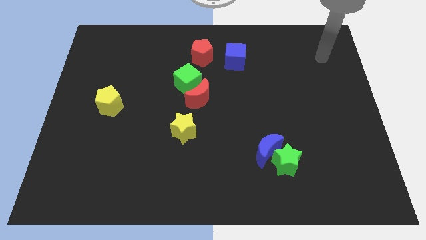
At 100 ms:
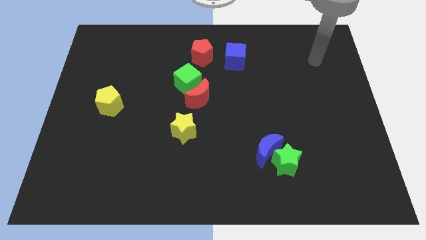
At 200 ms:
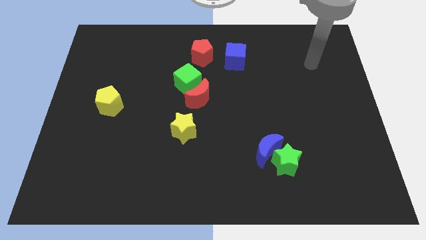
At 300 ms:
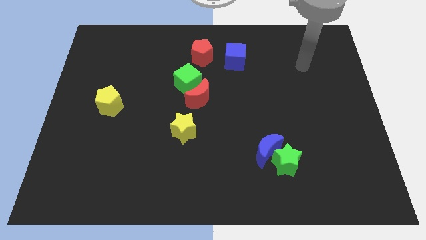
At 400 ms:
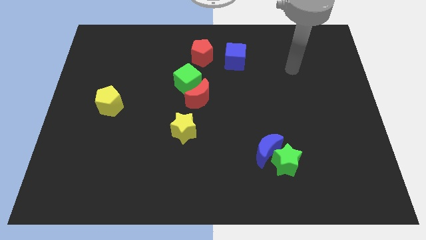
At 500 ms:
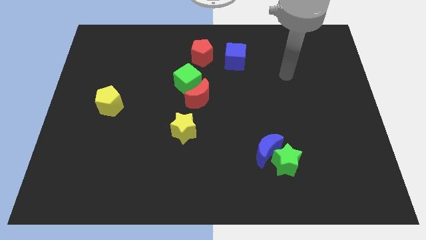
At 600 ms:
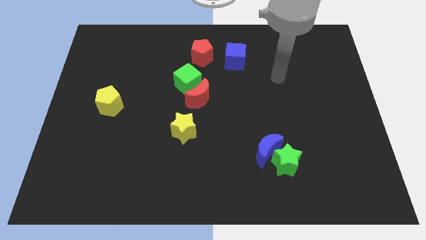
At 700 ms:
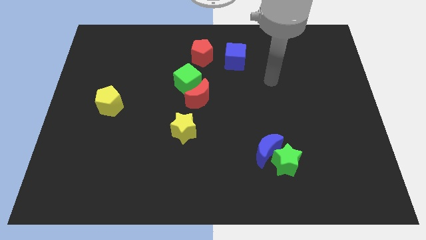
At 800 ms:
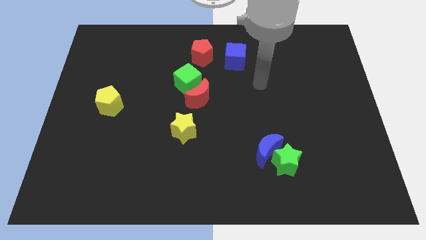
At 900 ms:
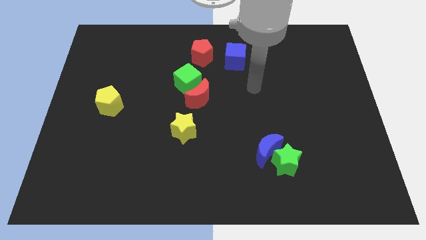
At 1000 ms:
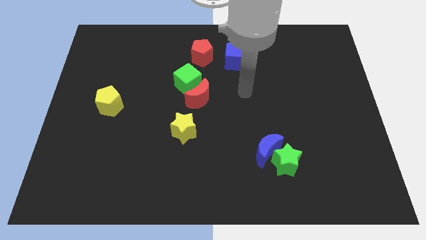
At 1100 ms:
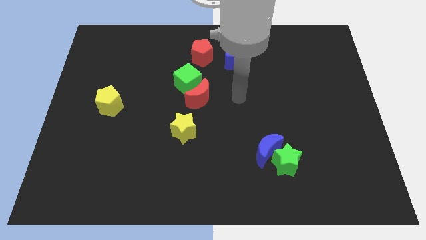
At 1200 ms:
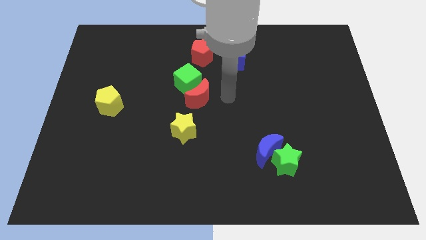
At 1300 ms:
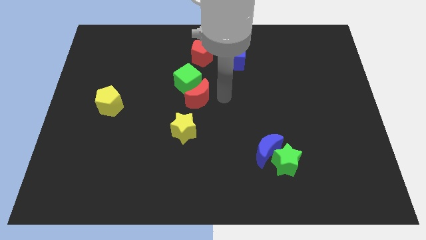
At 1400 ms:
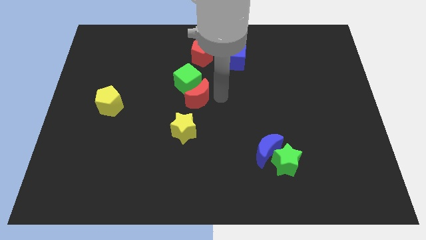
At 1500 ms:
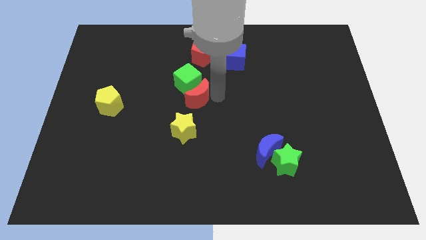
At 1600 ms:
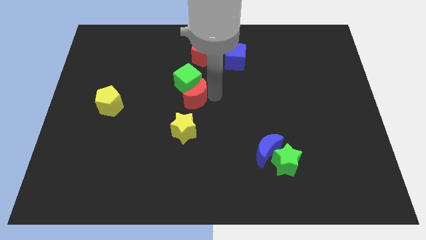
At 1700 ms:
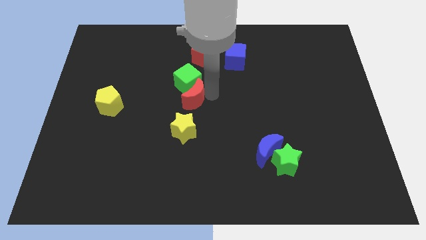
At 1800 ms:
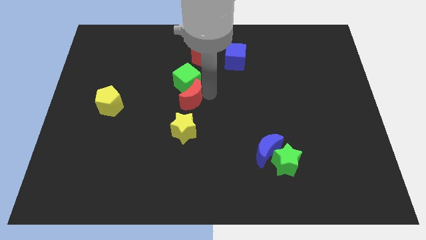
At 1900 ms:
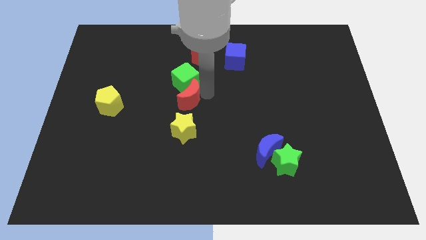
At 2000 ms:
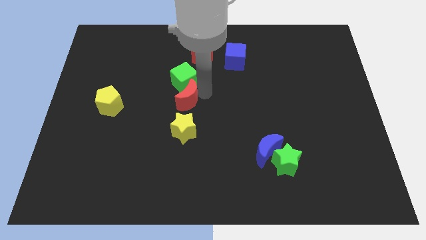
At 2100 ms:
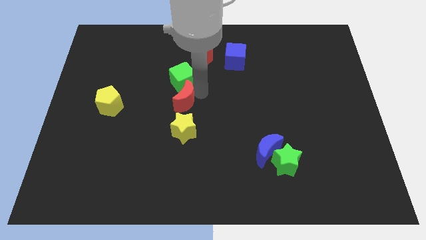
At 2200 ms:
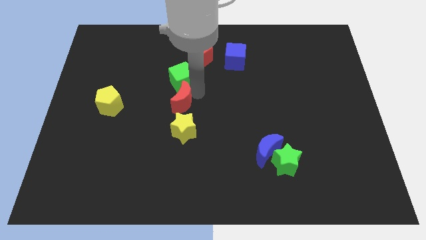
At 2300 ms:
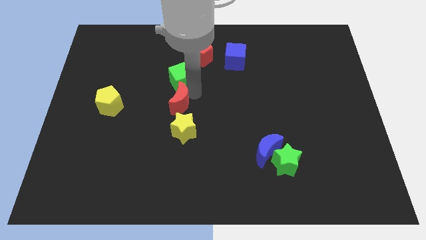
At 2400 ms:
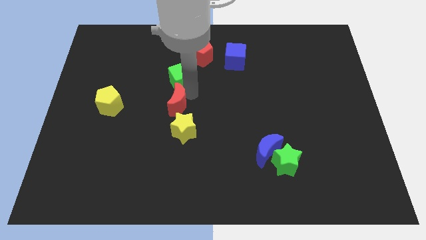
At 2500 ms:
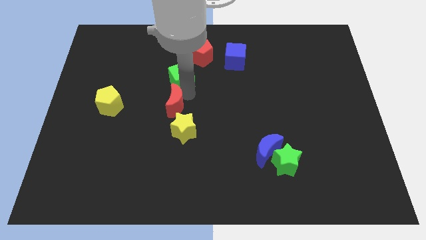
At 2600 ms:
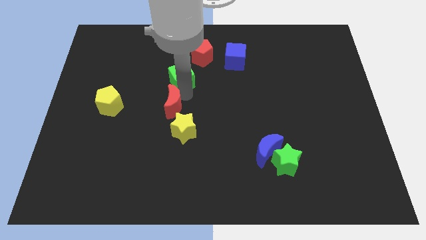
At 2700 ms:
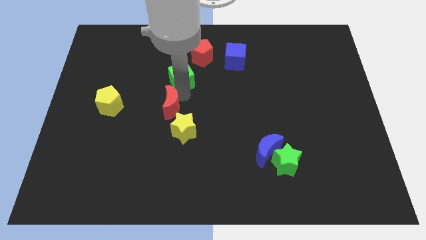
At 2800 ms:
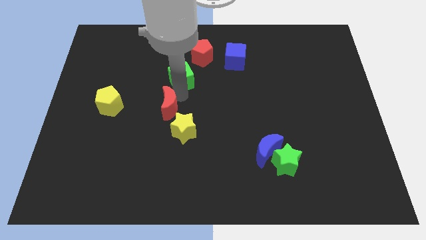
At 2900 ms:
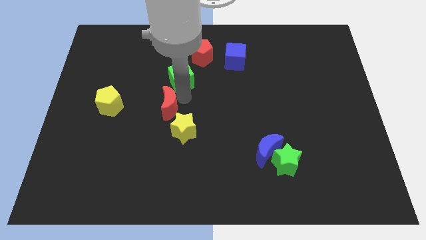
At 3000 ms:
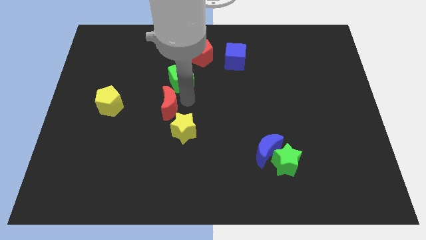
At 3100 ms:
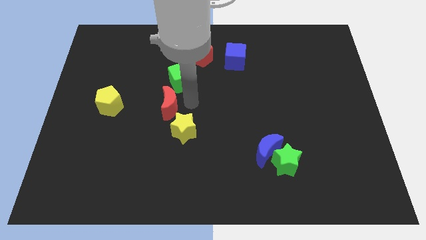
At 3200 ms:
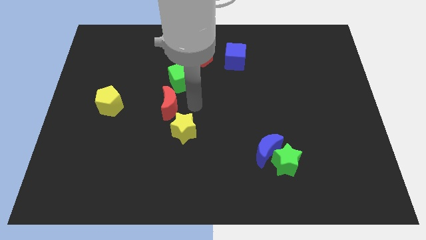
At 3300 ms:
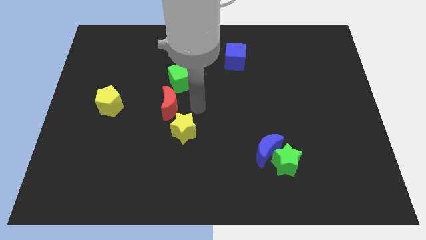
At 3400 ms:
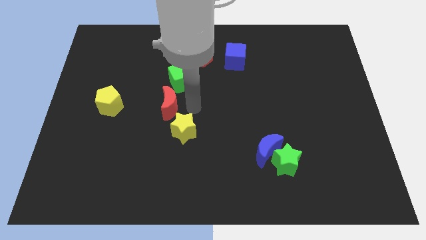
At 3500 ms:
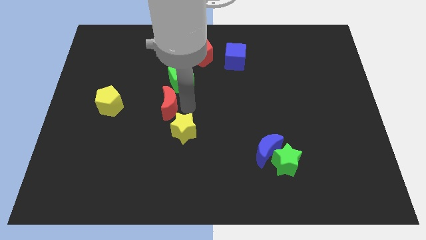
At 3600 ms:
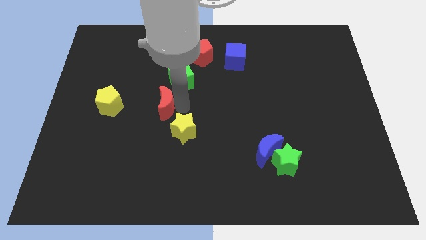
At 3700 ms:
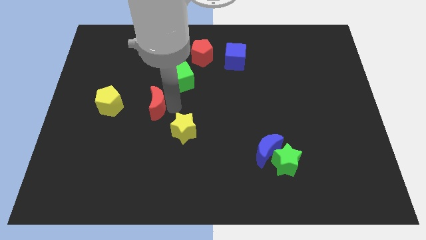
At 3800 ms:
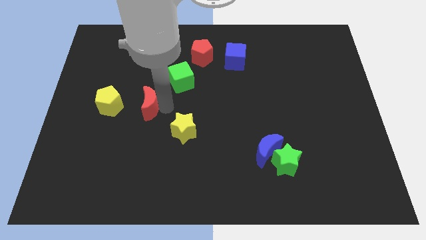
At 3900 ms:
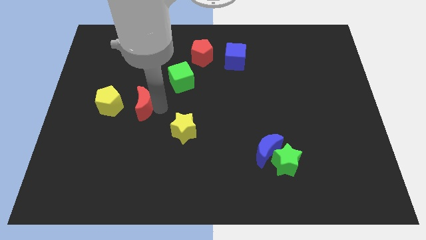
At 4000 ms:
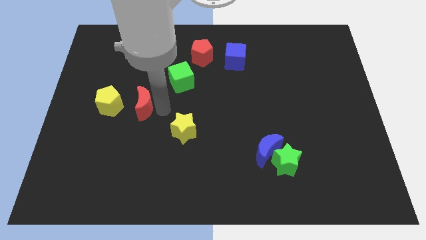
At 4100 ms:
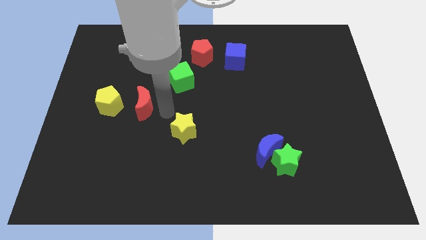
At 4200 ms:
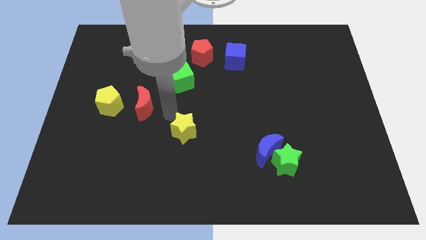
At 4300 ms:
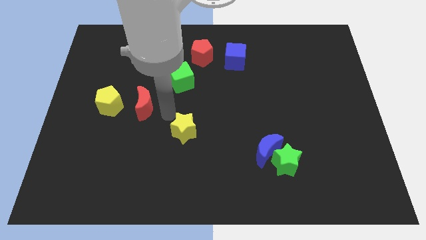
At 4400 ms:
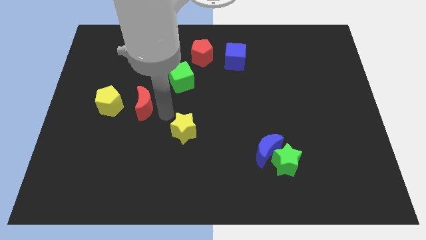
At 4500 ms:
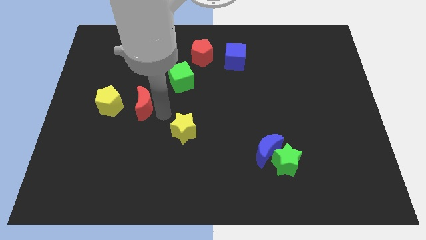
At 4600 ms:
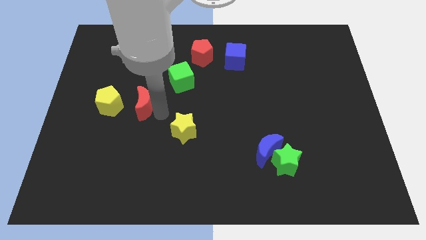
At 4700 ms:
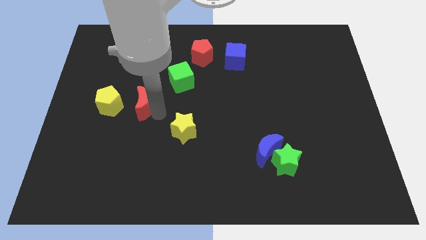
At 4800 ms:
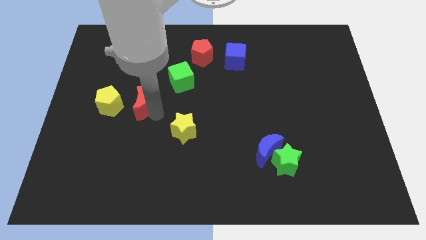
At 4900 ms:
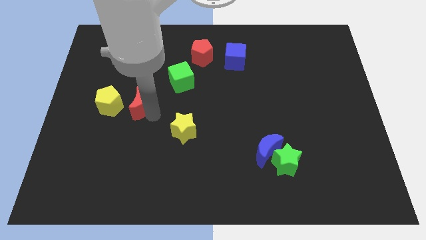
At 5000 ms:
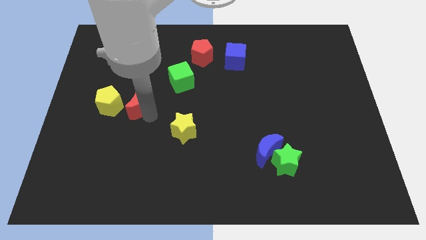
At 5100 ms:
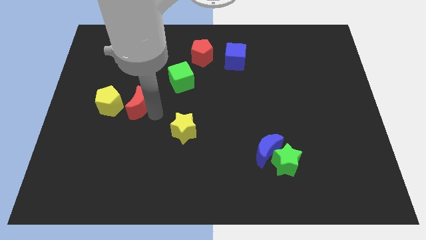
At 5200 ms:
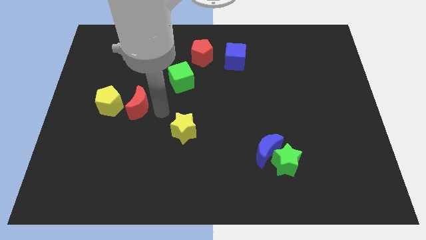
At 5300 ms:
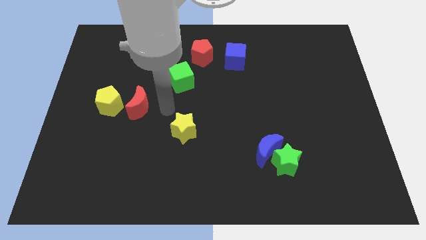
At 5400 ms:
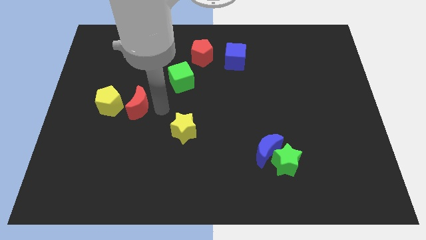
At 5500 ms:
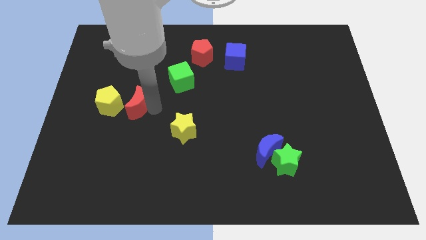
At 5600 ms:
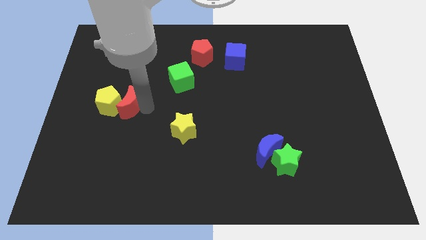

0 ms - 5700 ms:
move the red moon to the yellow pentagon

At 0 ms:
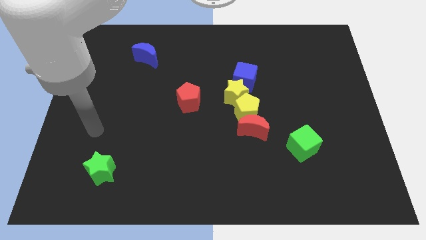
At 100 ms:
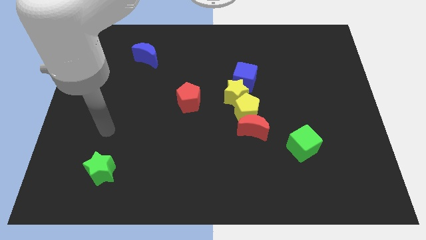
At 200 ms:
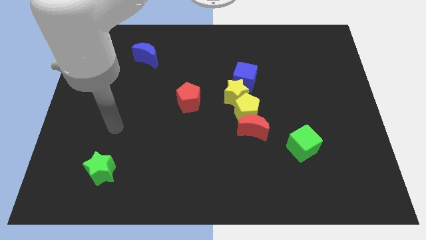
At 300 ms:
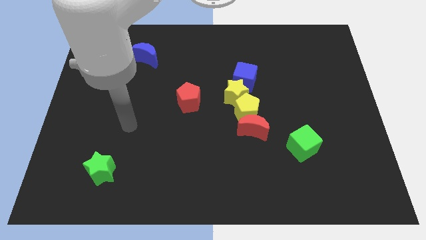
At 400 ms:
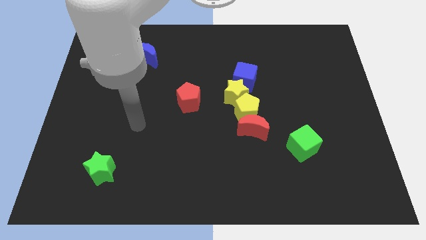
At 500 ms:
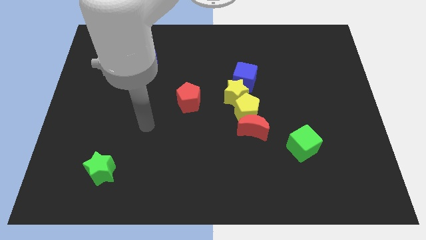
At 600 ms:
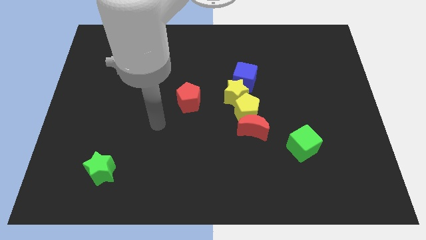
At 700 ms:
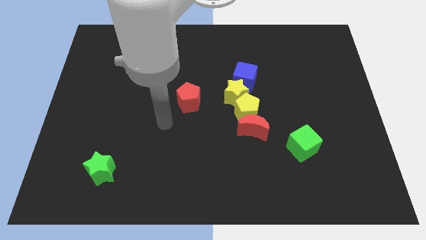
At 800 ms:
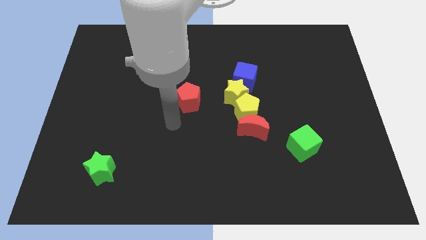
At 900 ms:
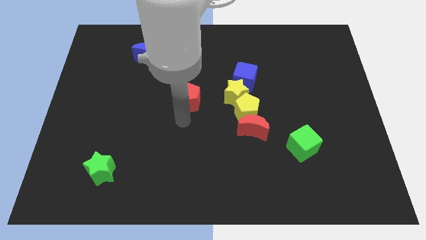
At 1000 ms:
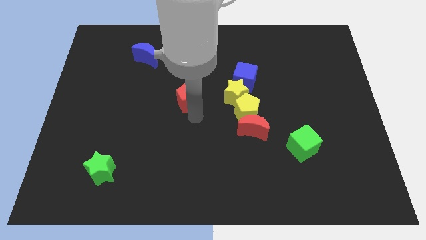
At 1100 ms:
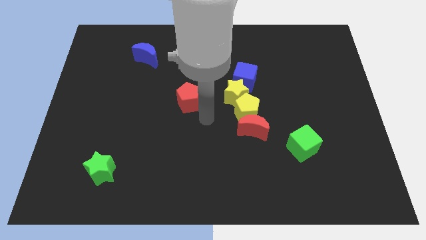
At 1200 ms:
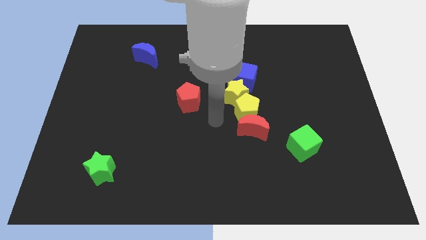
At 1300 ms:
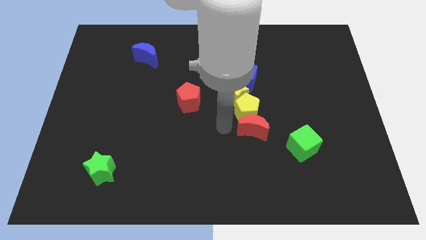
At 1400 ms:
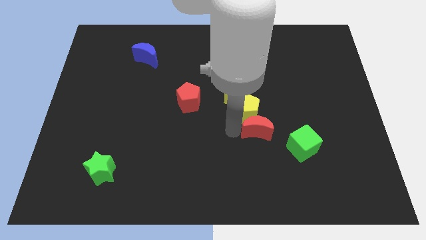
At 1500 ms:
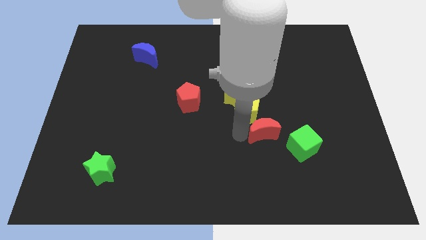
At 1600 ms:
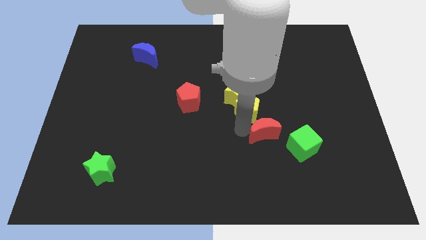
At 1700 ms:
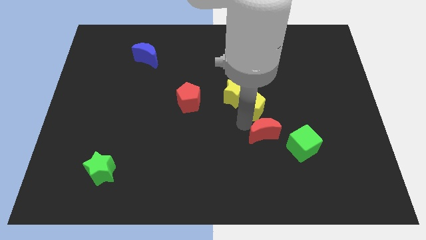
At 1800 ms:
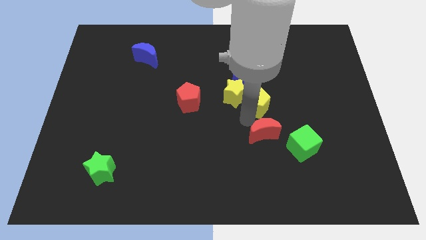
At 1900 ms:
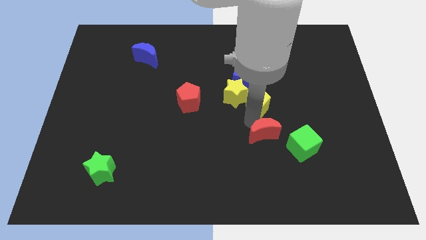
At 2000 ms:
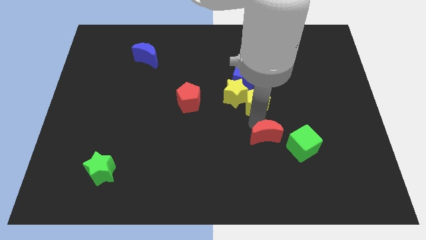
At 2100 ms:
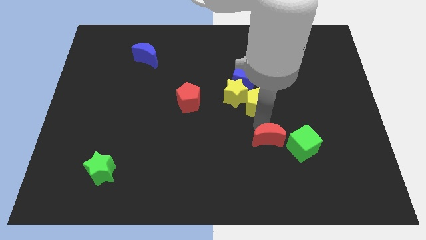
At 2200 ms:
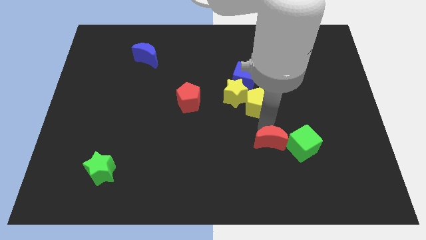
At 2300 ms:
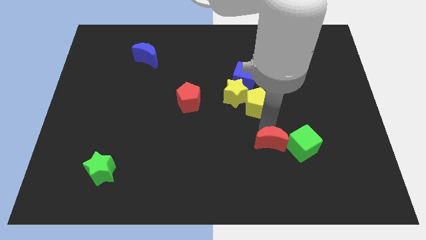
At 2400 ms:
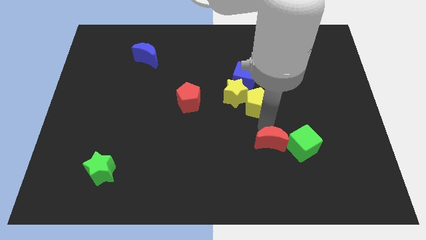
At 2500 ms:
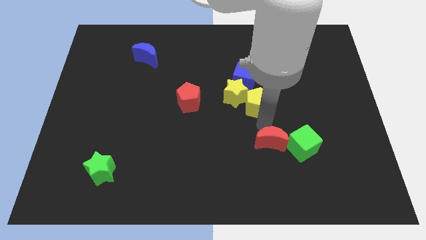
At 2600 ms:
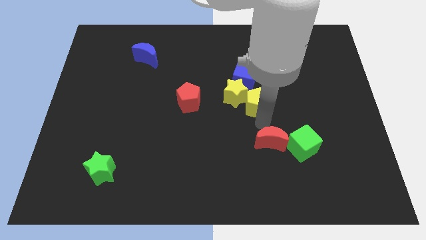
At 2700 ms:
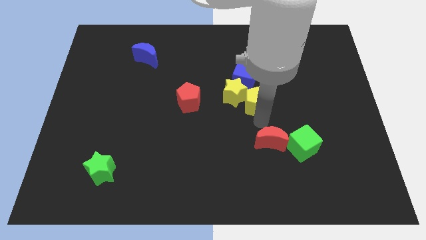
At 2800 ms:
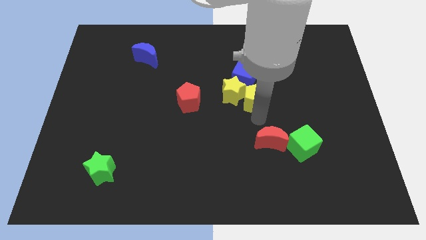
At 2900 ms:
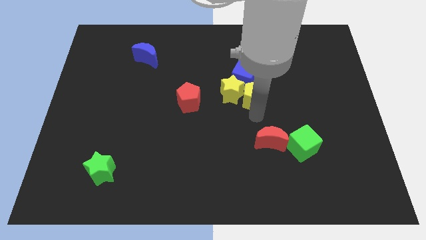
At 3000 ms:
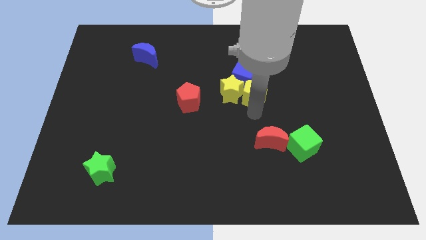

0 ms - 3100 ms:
slide the yellow pentagon towards the blue cube
